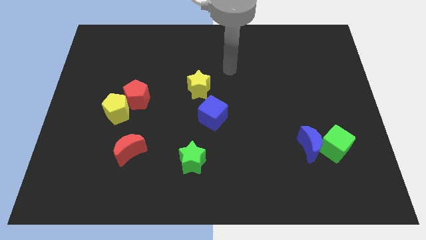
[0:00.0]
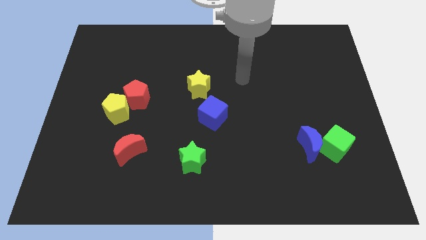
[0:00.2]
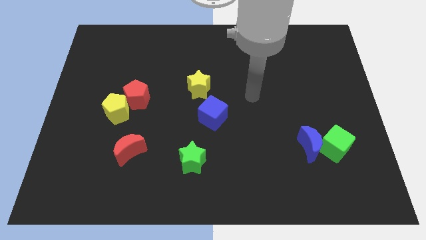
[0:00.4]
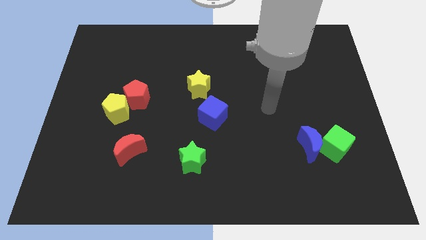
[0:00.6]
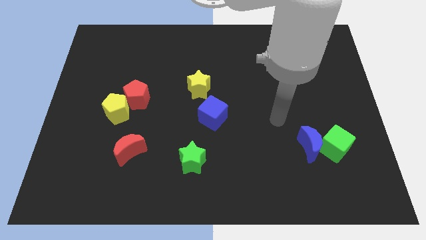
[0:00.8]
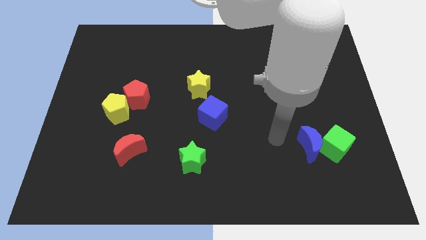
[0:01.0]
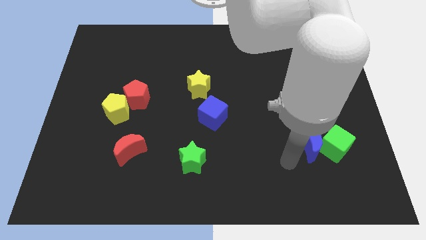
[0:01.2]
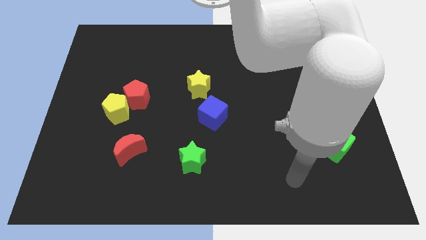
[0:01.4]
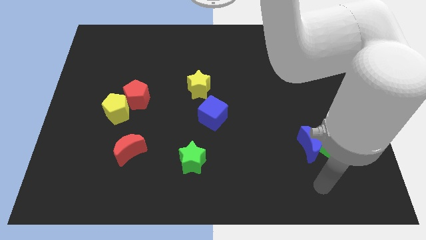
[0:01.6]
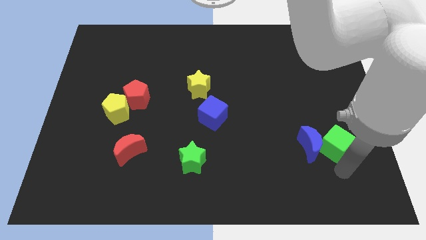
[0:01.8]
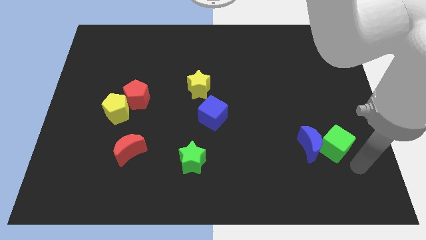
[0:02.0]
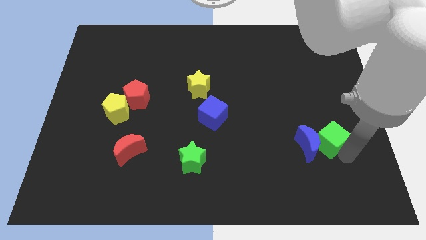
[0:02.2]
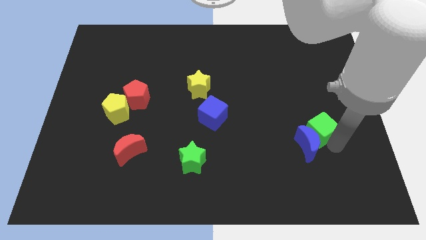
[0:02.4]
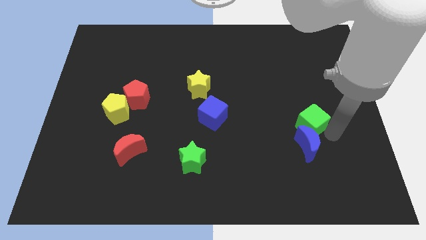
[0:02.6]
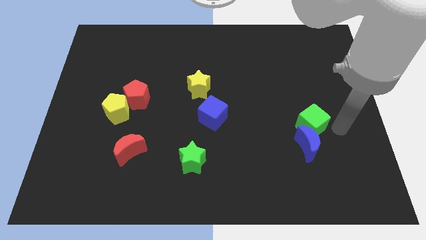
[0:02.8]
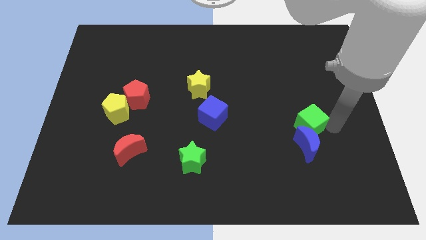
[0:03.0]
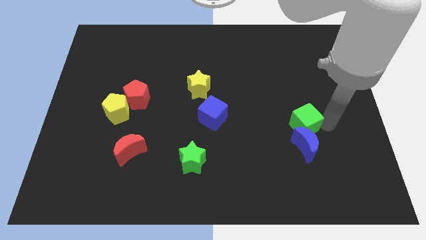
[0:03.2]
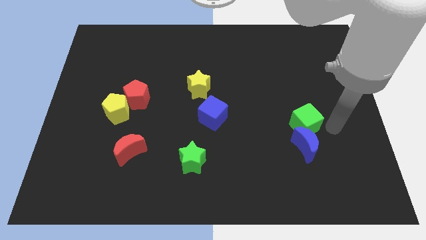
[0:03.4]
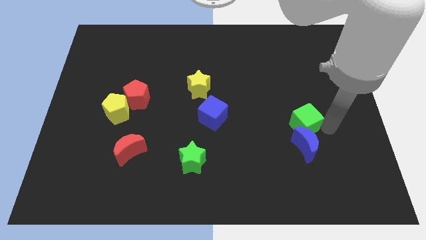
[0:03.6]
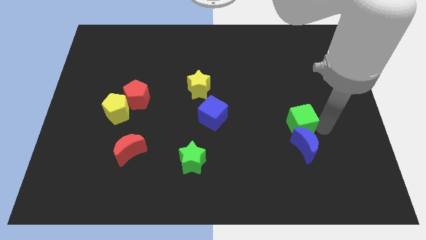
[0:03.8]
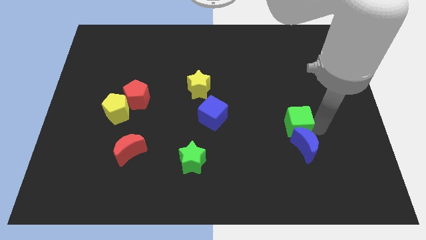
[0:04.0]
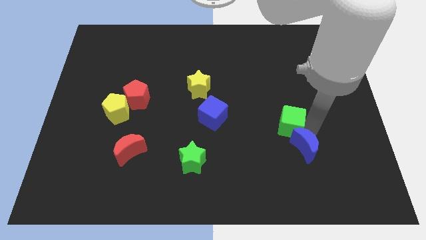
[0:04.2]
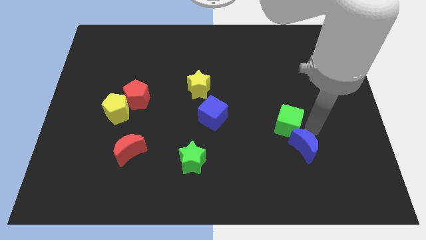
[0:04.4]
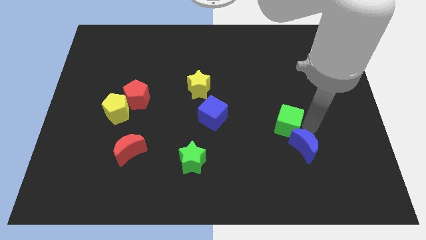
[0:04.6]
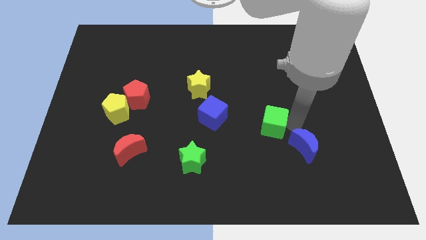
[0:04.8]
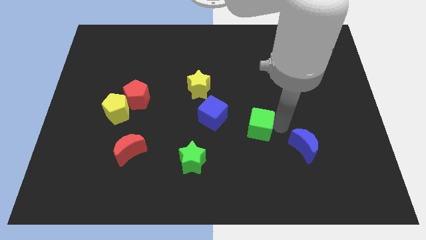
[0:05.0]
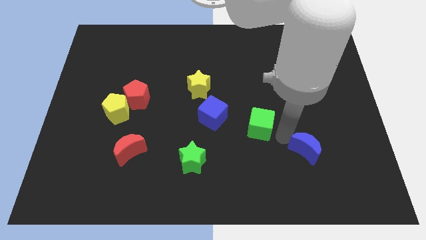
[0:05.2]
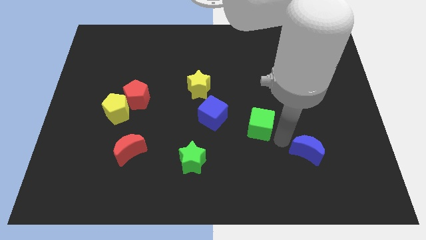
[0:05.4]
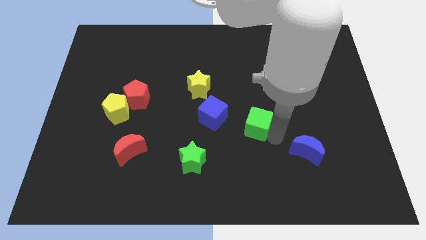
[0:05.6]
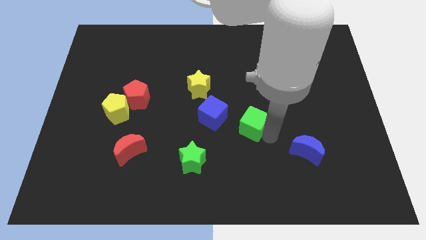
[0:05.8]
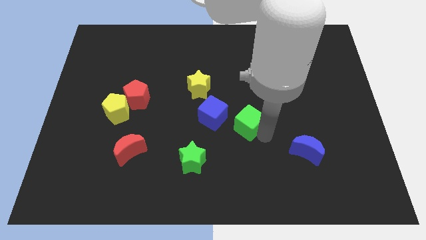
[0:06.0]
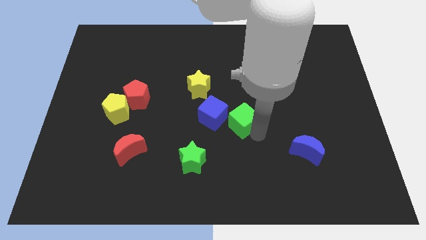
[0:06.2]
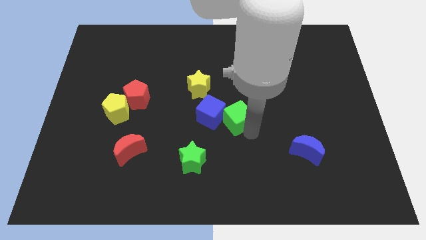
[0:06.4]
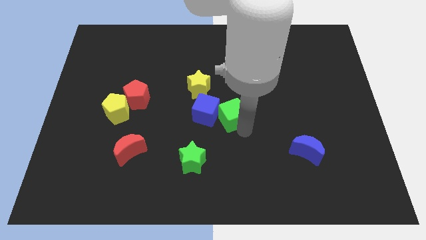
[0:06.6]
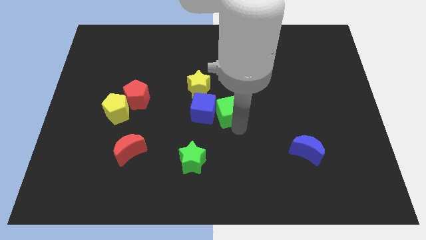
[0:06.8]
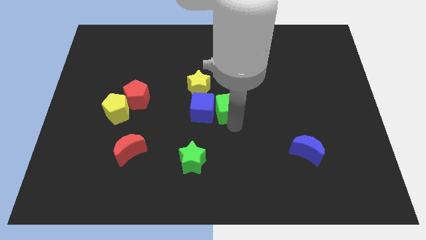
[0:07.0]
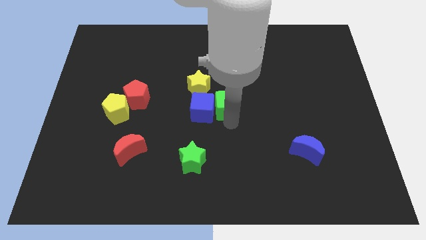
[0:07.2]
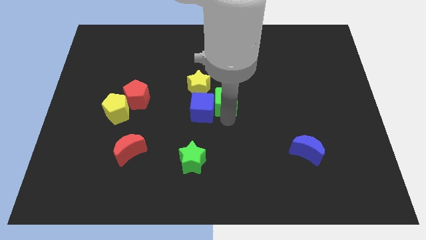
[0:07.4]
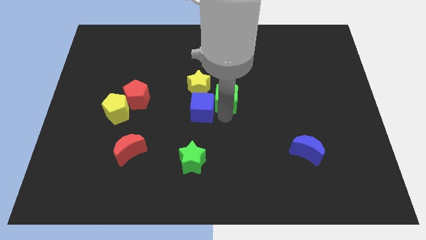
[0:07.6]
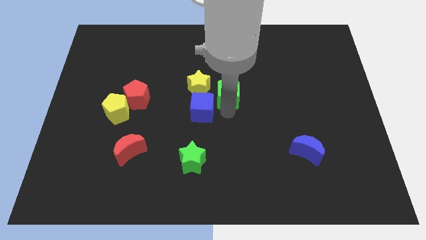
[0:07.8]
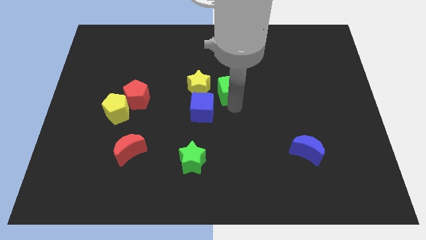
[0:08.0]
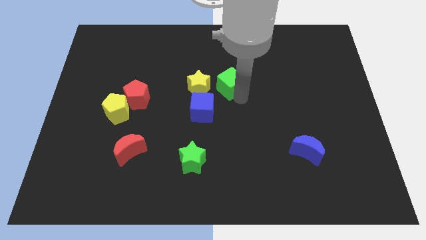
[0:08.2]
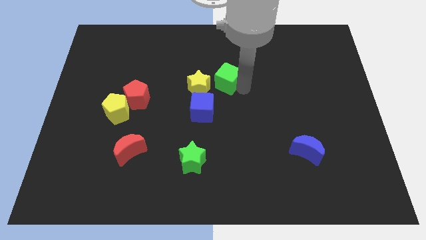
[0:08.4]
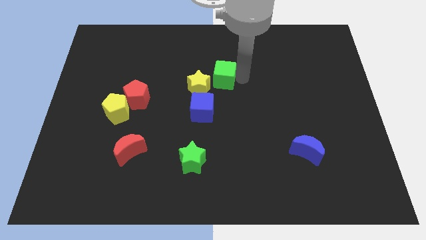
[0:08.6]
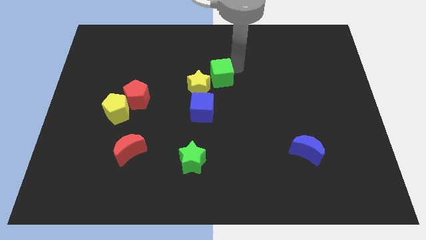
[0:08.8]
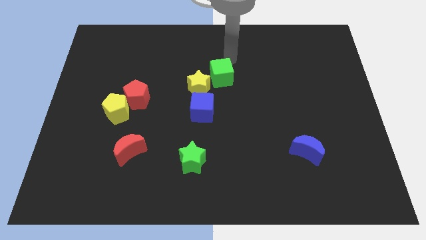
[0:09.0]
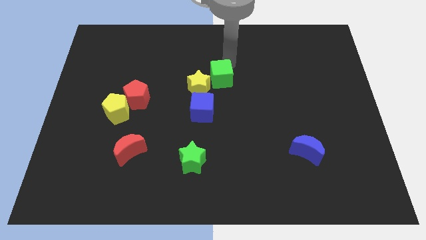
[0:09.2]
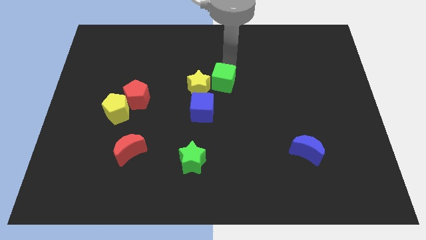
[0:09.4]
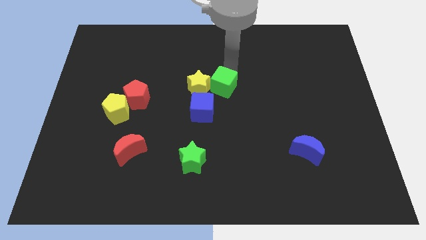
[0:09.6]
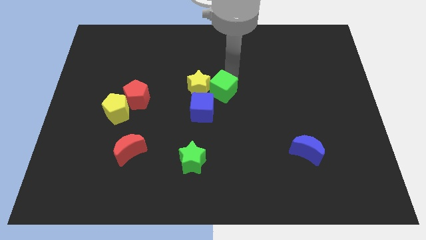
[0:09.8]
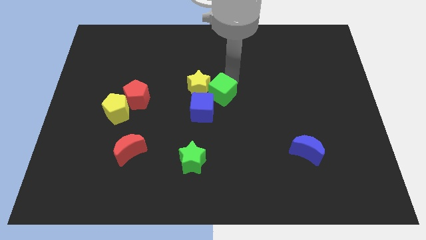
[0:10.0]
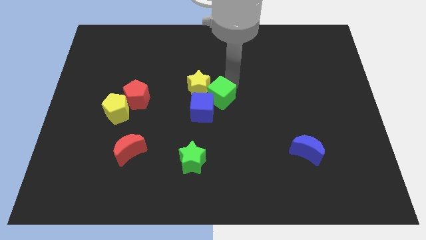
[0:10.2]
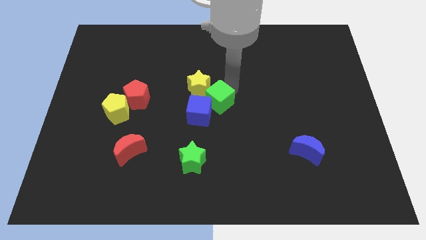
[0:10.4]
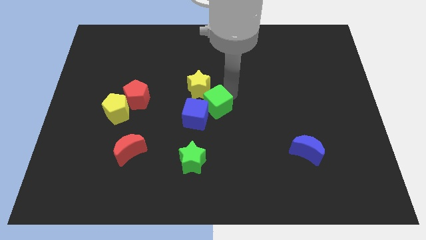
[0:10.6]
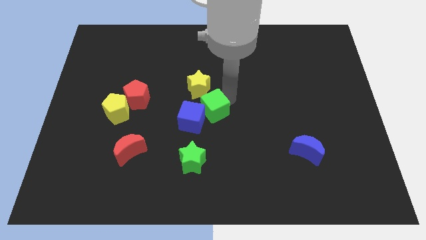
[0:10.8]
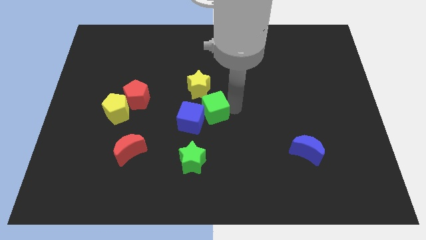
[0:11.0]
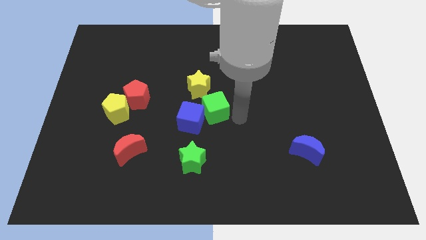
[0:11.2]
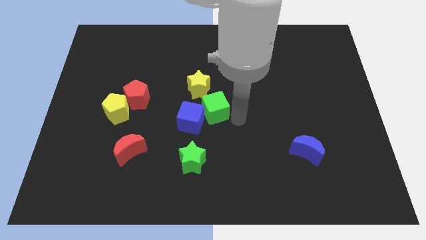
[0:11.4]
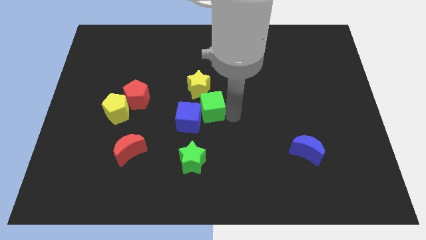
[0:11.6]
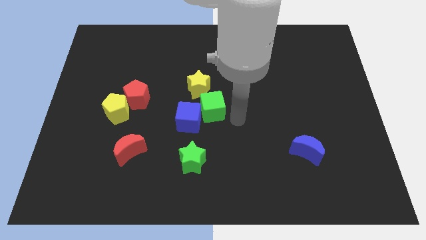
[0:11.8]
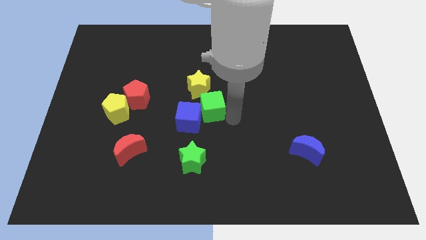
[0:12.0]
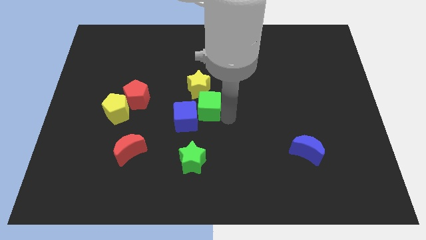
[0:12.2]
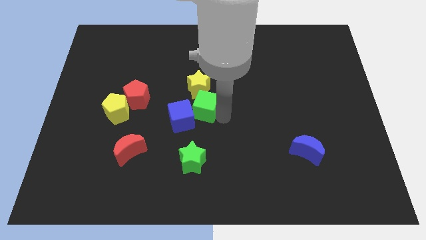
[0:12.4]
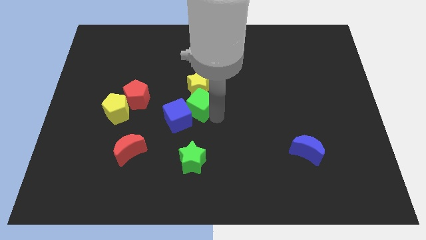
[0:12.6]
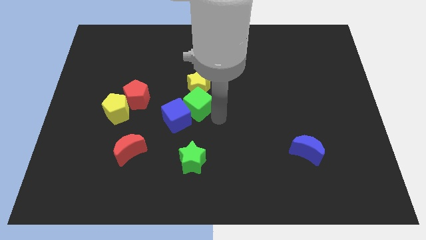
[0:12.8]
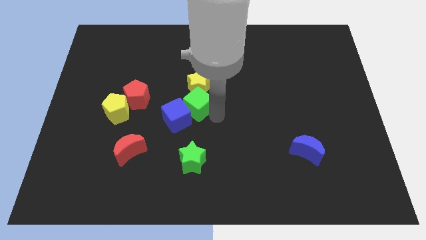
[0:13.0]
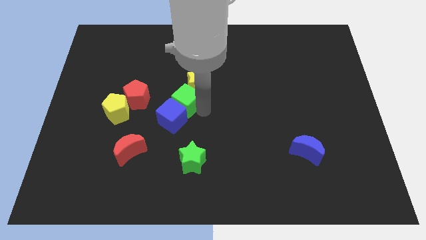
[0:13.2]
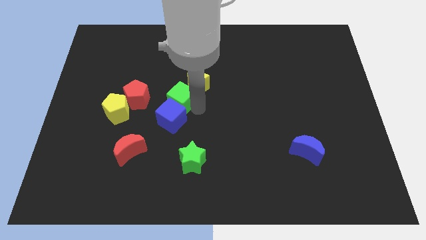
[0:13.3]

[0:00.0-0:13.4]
push the green cube left of the yellow star

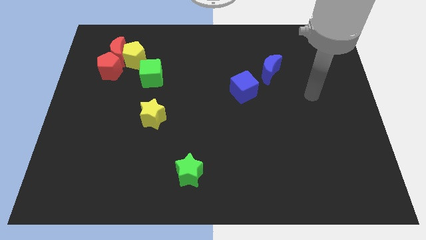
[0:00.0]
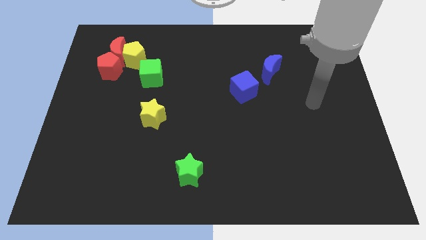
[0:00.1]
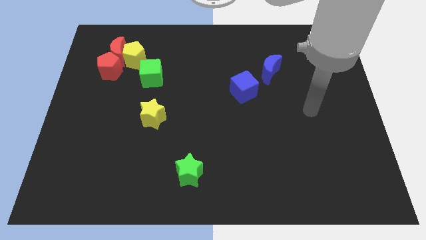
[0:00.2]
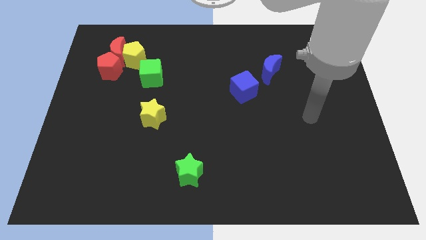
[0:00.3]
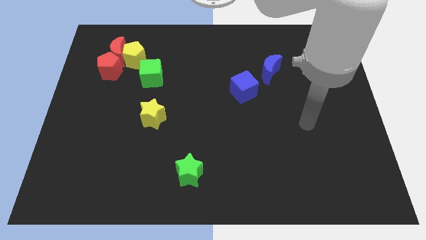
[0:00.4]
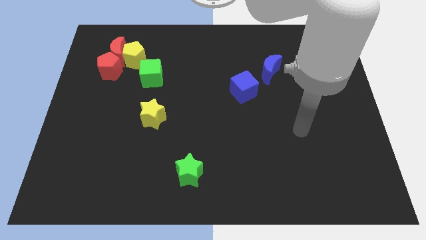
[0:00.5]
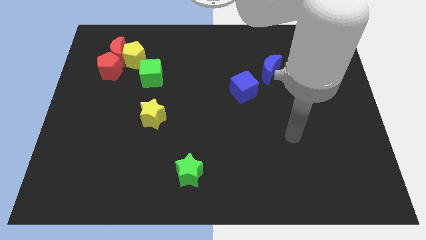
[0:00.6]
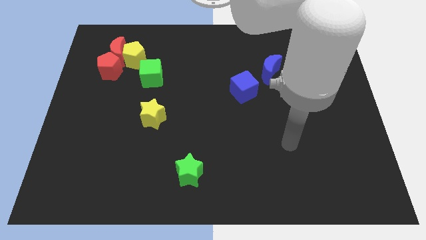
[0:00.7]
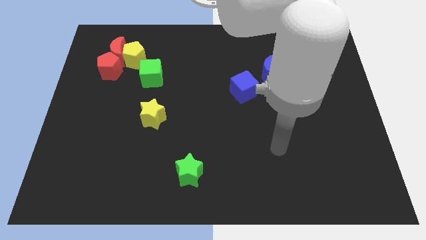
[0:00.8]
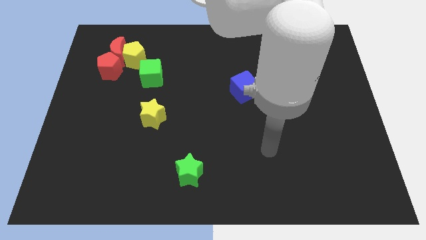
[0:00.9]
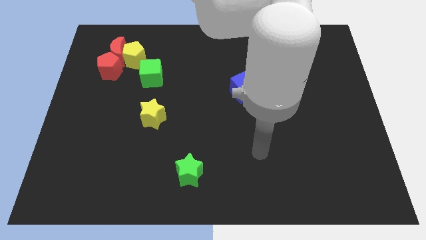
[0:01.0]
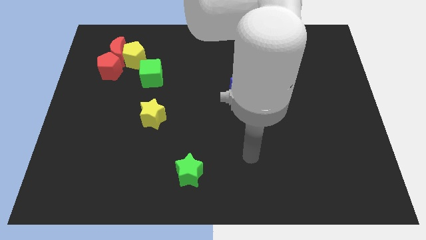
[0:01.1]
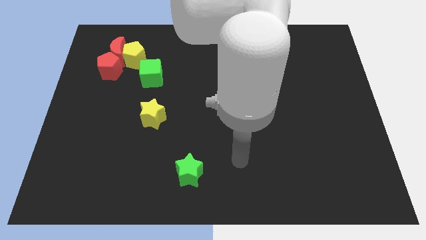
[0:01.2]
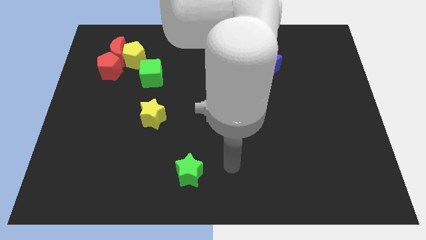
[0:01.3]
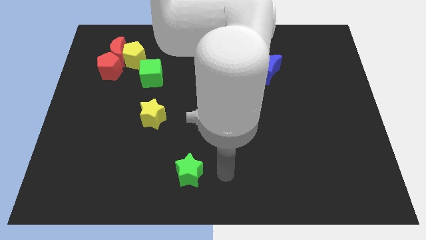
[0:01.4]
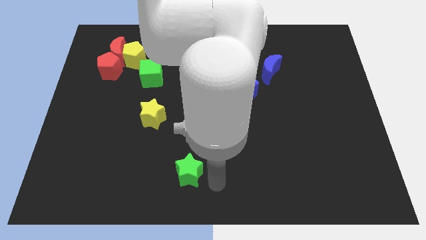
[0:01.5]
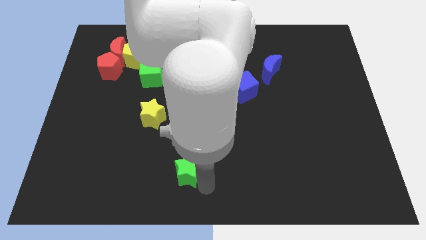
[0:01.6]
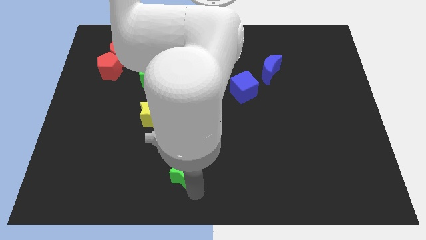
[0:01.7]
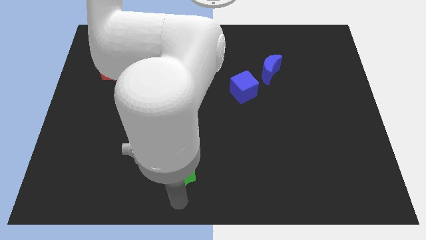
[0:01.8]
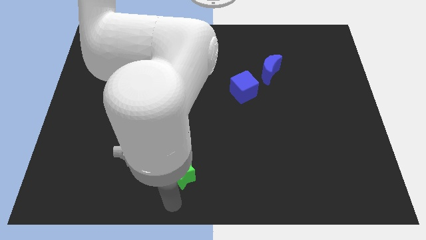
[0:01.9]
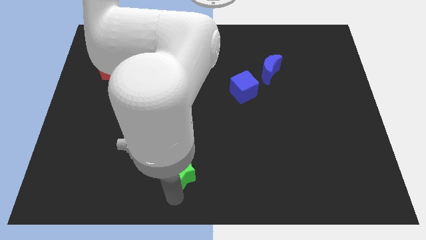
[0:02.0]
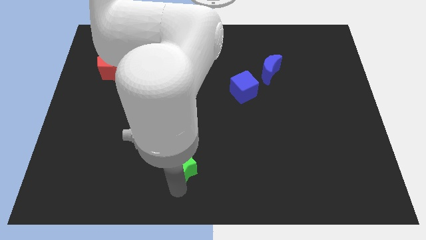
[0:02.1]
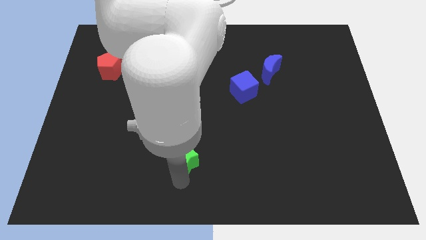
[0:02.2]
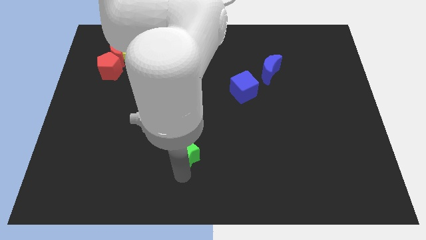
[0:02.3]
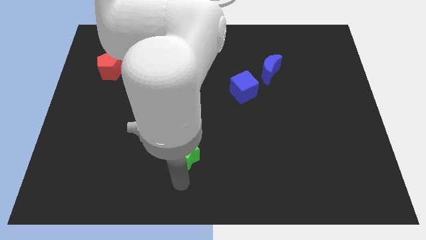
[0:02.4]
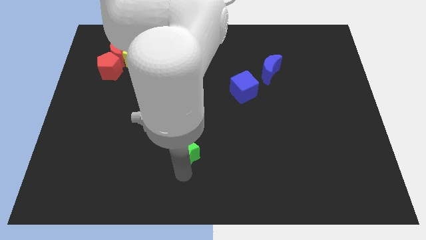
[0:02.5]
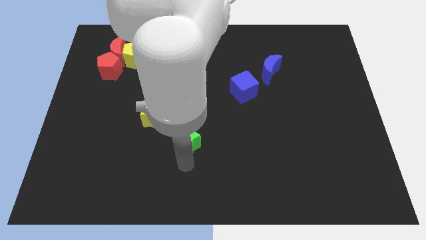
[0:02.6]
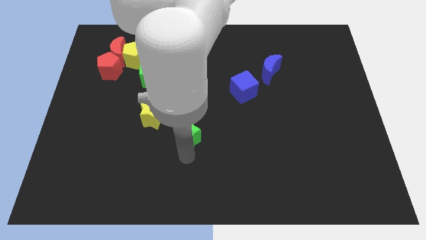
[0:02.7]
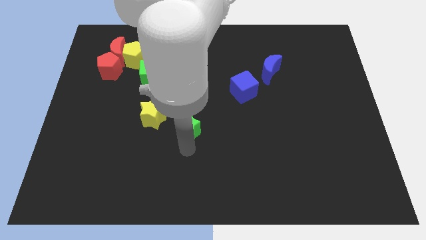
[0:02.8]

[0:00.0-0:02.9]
slide the green star to the right of the yellow star
